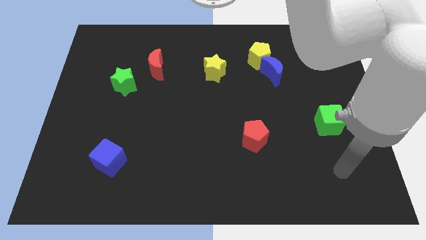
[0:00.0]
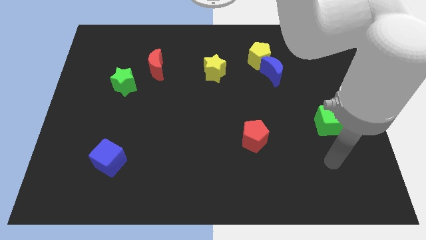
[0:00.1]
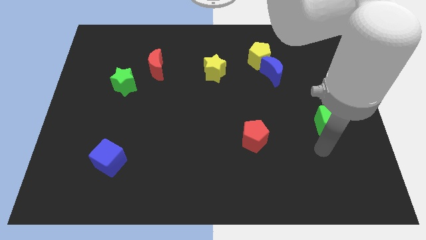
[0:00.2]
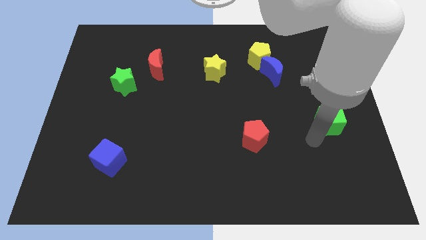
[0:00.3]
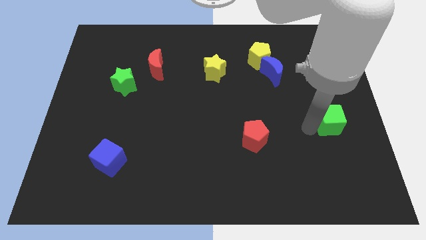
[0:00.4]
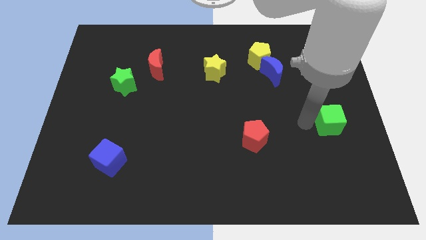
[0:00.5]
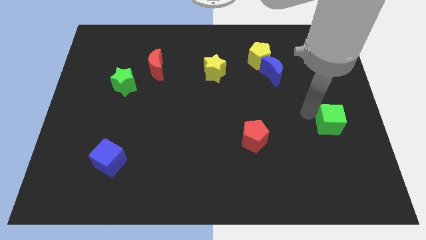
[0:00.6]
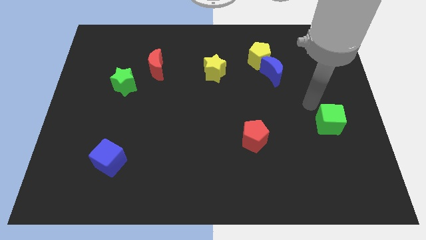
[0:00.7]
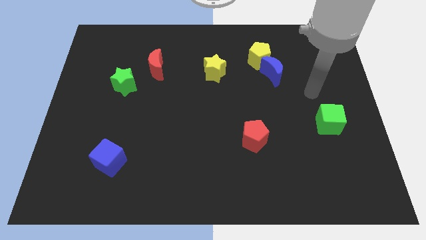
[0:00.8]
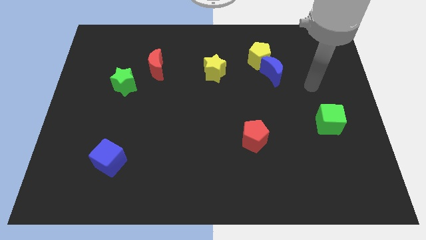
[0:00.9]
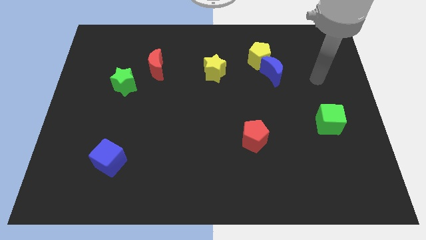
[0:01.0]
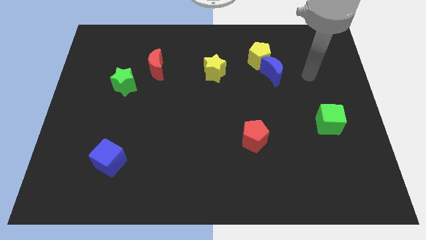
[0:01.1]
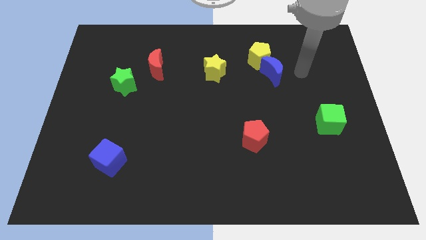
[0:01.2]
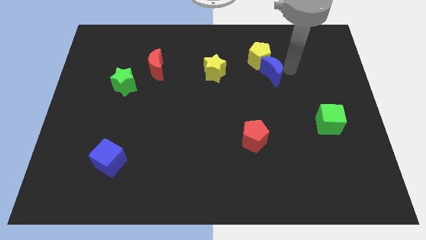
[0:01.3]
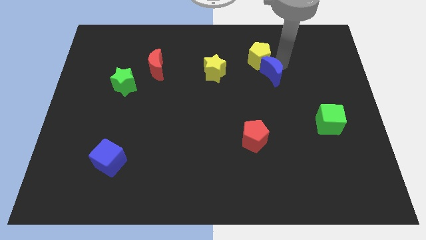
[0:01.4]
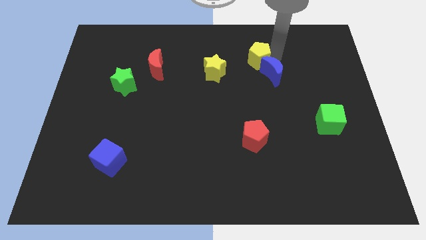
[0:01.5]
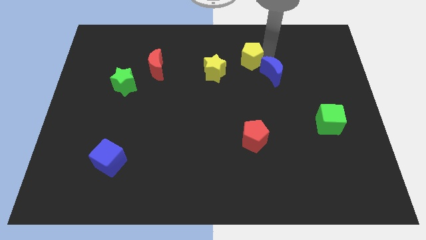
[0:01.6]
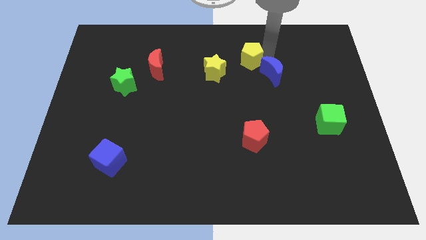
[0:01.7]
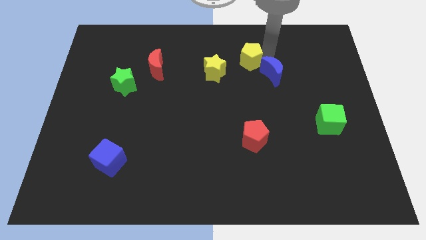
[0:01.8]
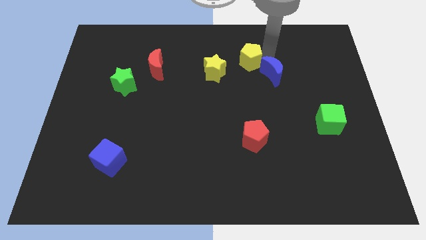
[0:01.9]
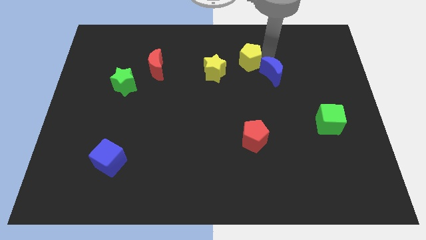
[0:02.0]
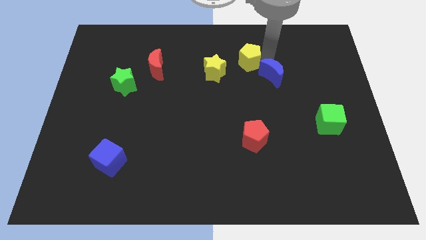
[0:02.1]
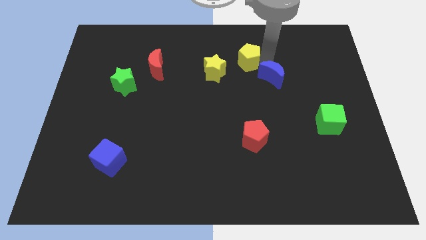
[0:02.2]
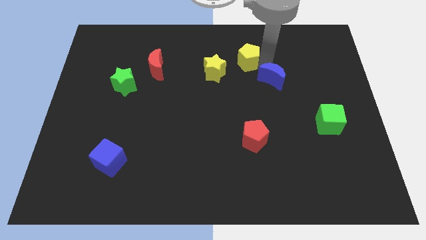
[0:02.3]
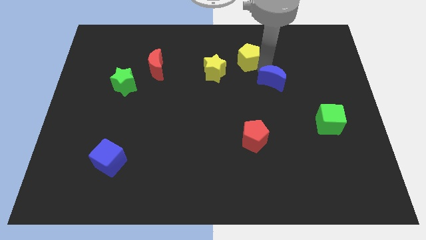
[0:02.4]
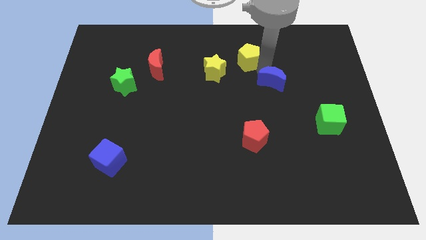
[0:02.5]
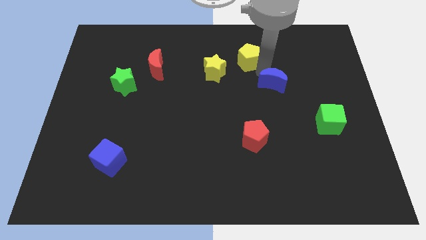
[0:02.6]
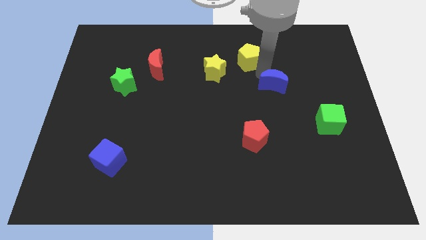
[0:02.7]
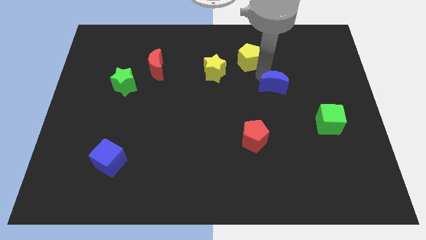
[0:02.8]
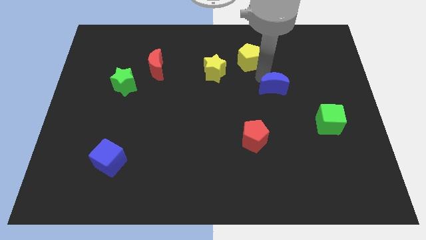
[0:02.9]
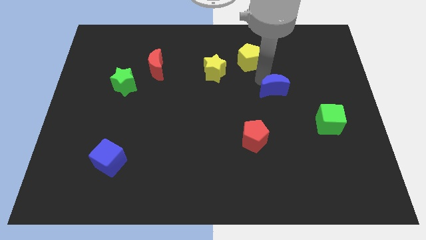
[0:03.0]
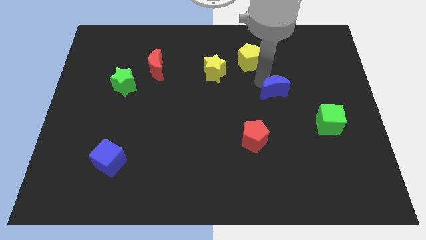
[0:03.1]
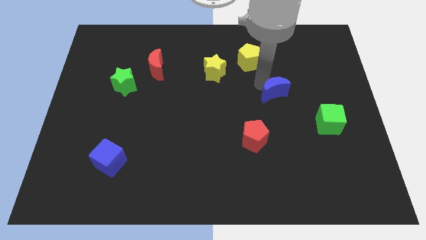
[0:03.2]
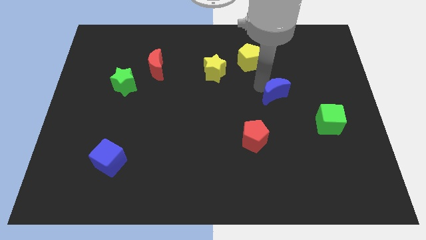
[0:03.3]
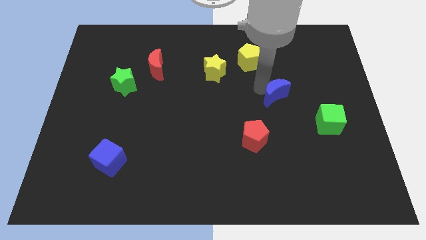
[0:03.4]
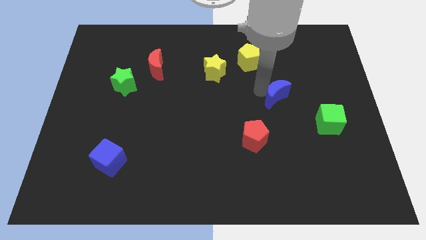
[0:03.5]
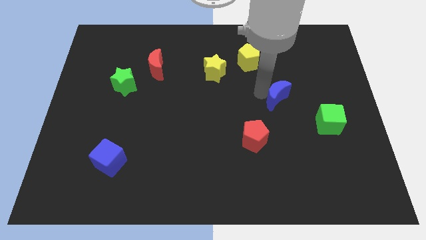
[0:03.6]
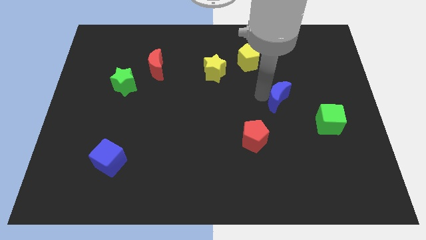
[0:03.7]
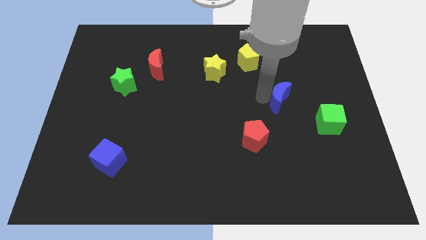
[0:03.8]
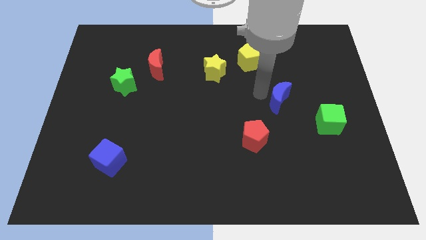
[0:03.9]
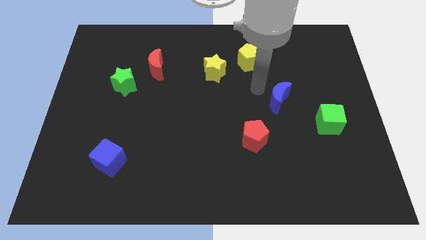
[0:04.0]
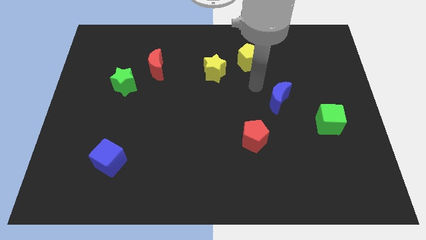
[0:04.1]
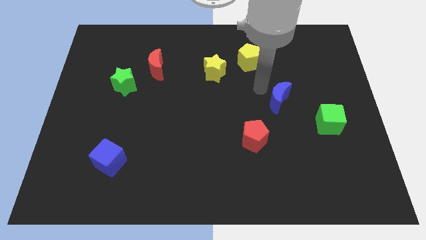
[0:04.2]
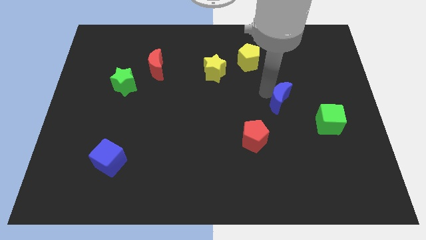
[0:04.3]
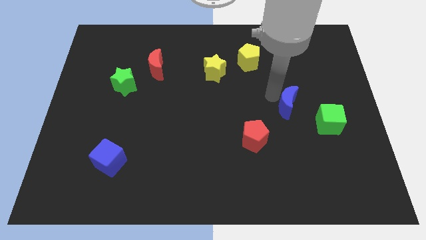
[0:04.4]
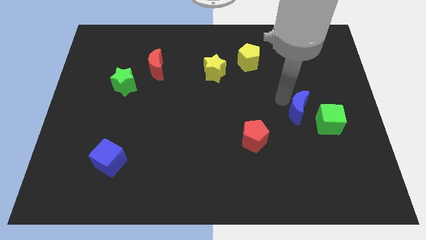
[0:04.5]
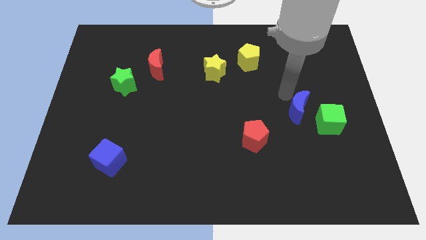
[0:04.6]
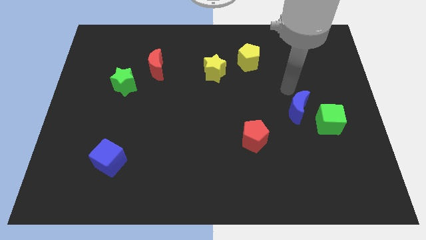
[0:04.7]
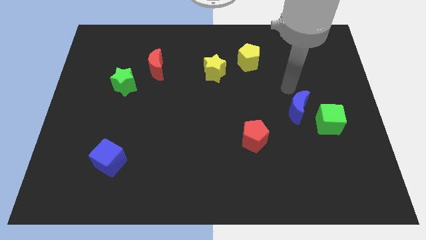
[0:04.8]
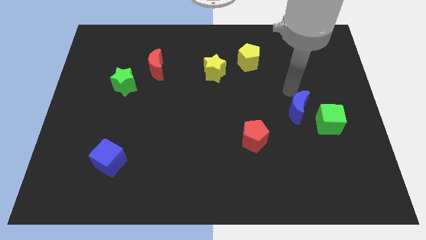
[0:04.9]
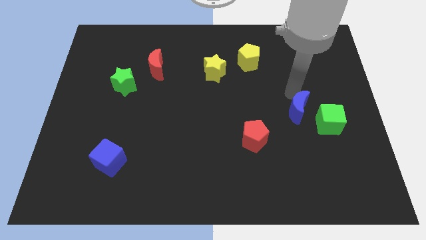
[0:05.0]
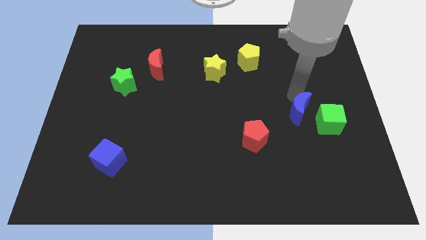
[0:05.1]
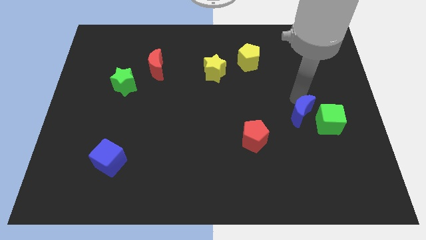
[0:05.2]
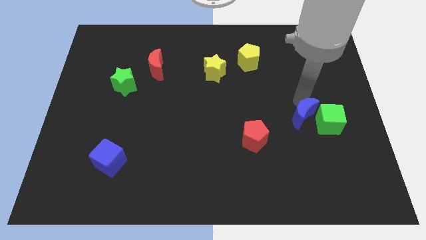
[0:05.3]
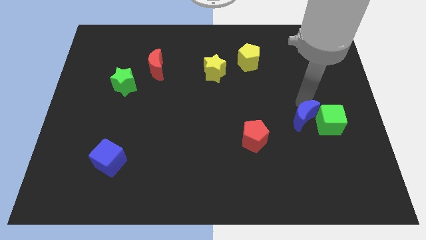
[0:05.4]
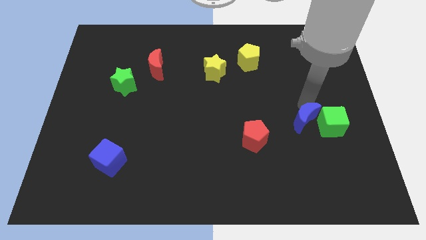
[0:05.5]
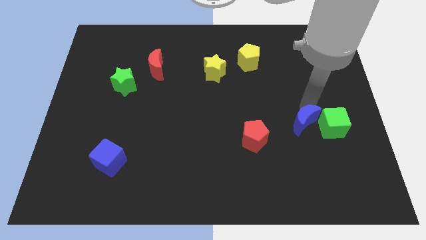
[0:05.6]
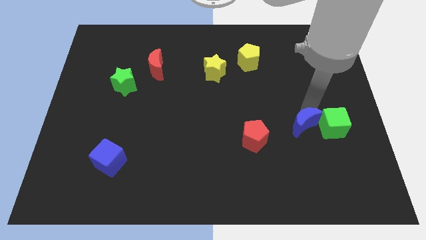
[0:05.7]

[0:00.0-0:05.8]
put the blue moon diagonally down and to the left of the green cube

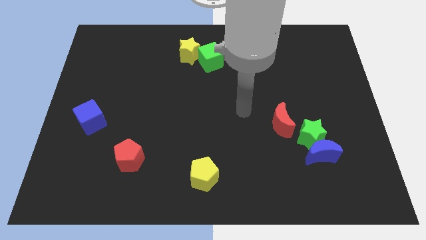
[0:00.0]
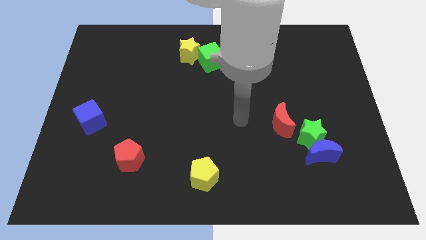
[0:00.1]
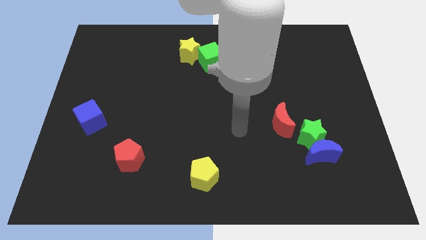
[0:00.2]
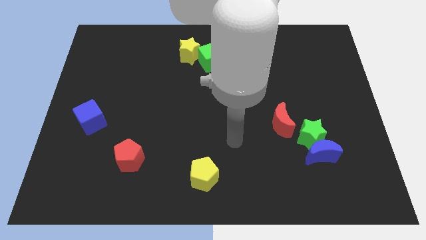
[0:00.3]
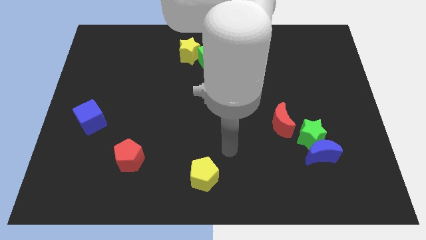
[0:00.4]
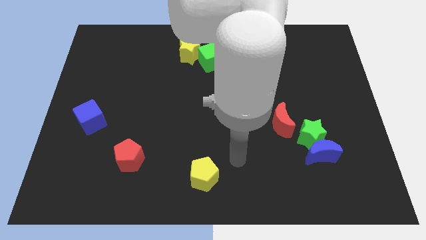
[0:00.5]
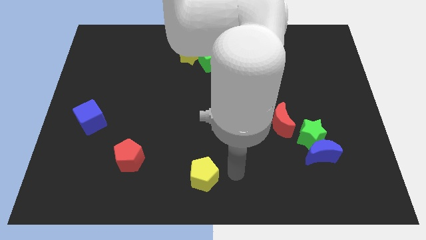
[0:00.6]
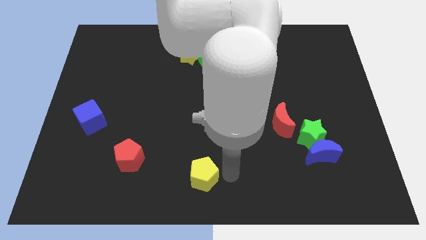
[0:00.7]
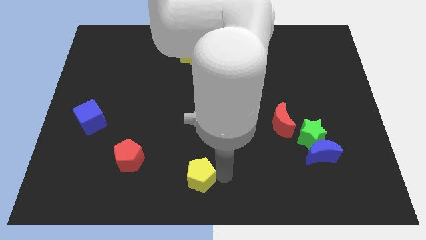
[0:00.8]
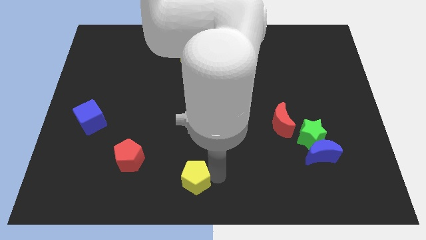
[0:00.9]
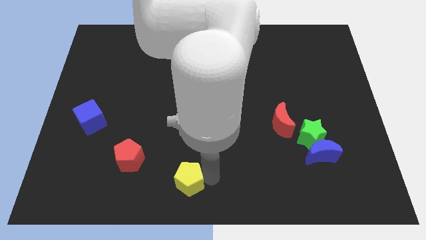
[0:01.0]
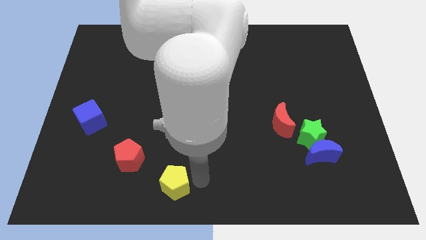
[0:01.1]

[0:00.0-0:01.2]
move the yellow pentagon to the bottom right of the red pentagon
